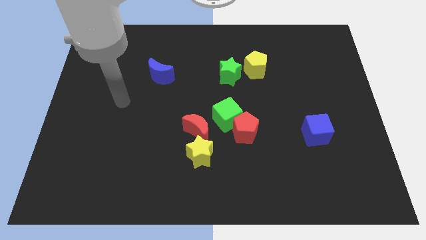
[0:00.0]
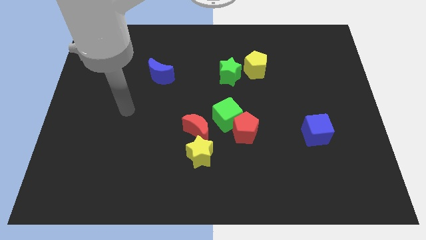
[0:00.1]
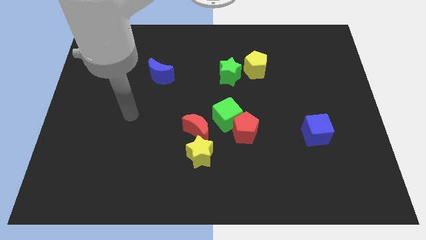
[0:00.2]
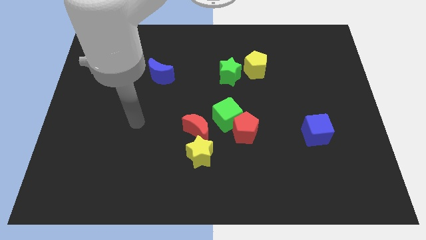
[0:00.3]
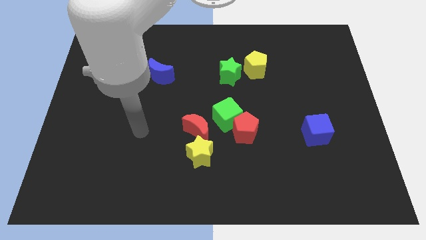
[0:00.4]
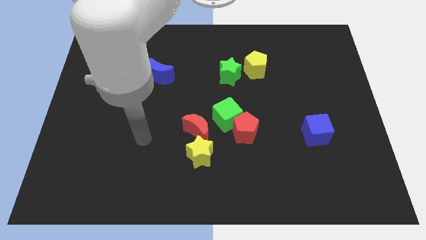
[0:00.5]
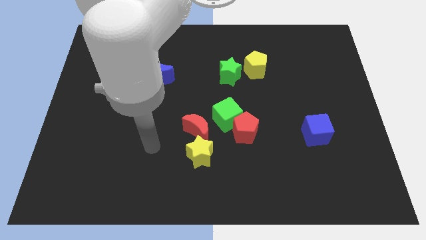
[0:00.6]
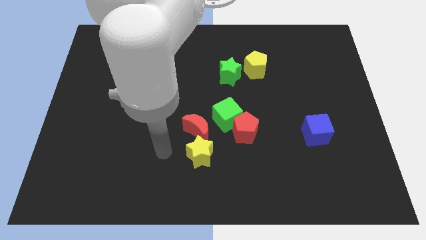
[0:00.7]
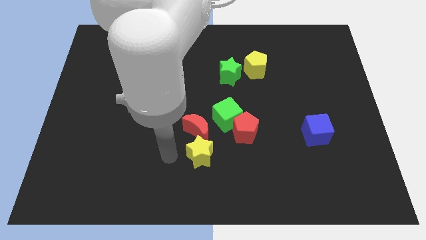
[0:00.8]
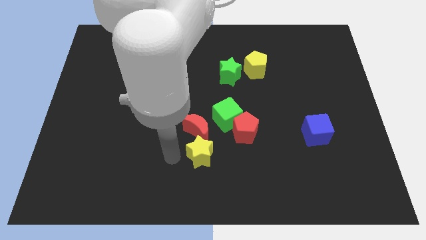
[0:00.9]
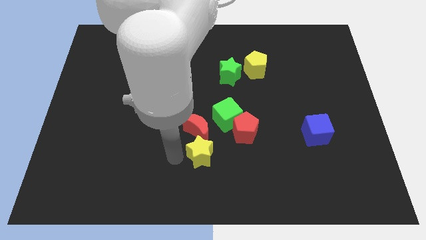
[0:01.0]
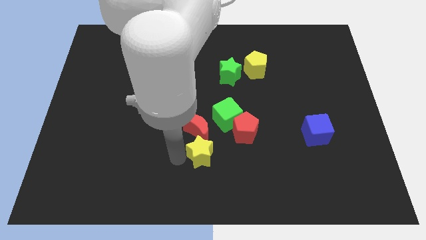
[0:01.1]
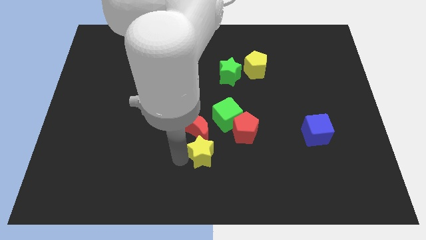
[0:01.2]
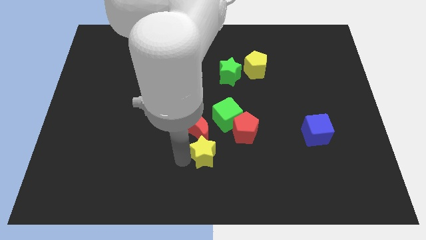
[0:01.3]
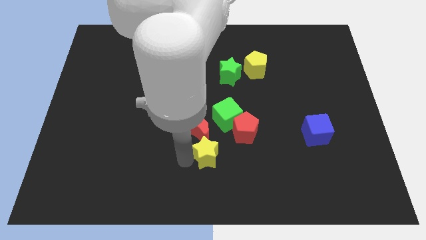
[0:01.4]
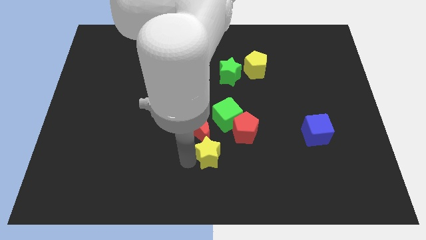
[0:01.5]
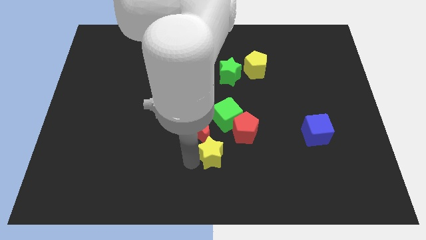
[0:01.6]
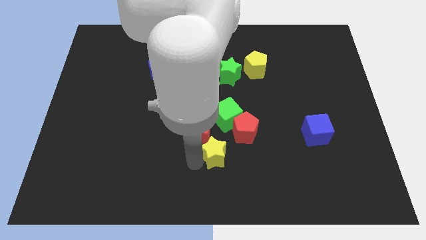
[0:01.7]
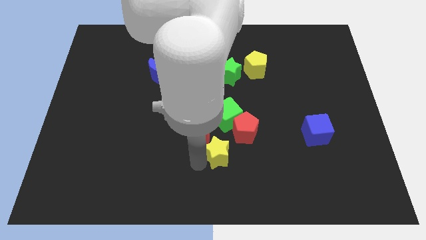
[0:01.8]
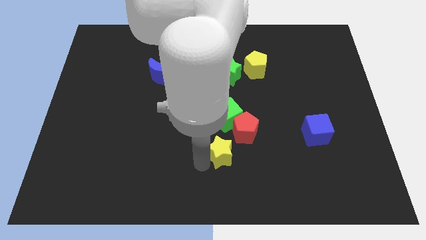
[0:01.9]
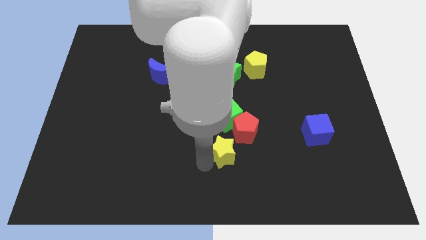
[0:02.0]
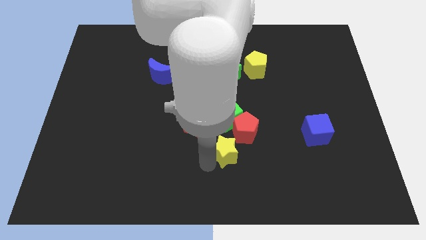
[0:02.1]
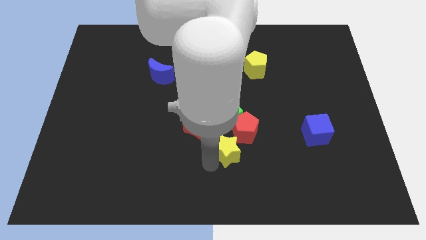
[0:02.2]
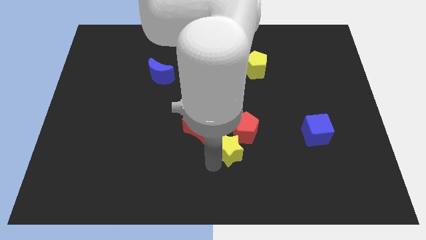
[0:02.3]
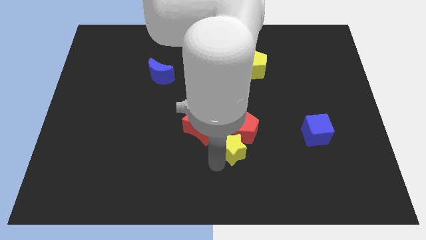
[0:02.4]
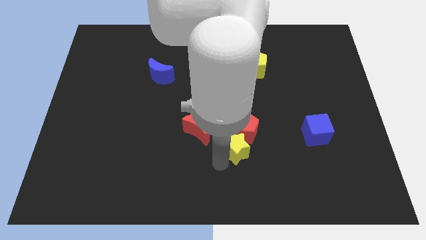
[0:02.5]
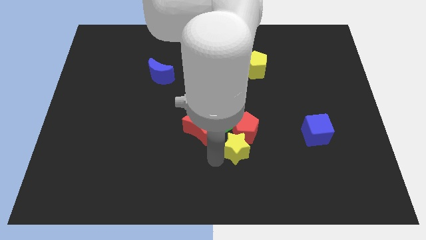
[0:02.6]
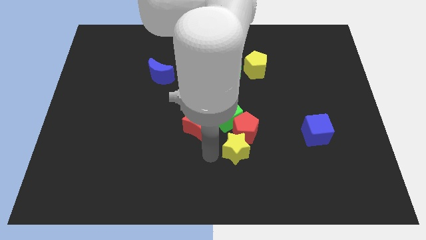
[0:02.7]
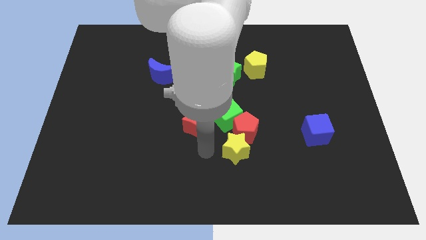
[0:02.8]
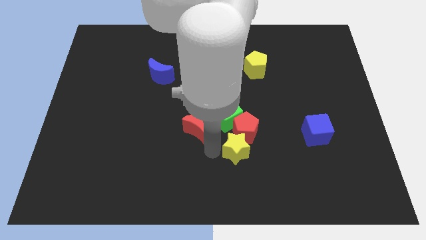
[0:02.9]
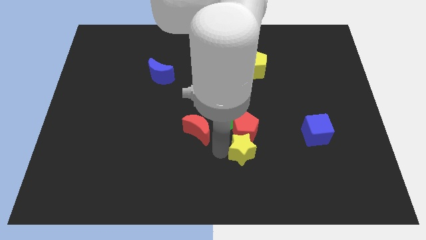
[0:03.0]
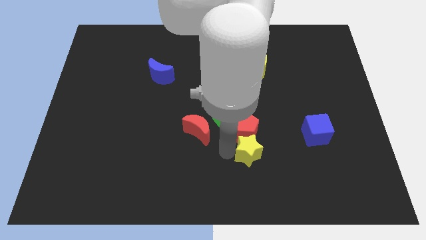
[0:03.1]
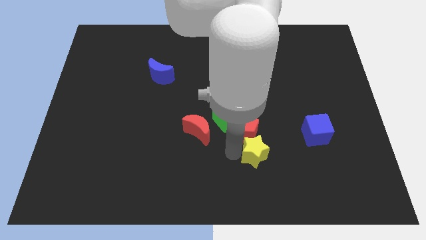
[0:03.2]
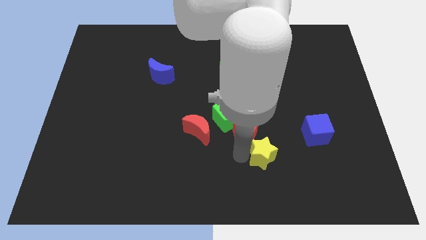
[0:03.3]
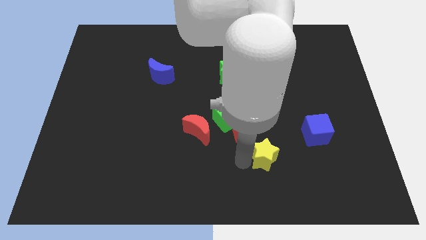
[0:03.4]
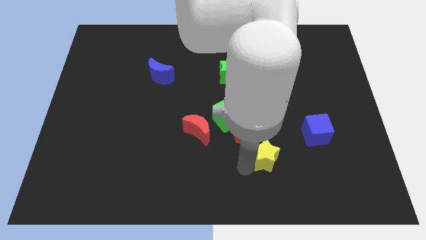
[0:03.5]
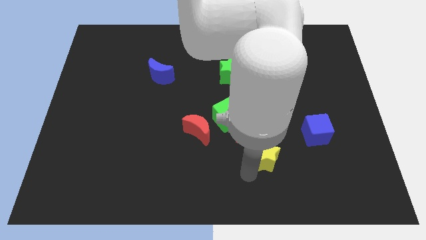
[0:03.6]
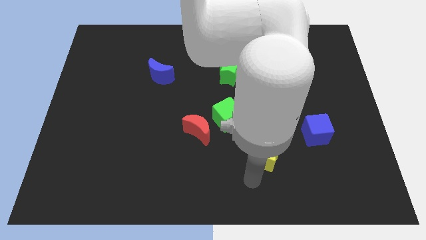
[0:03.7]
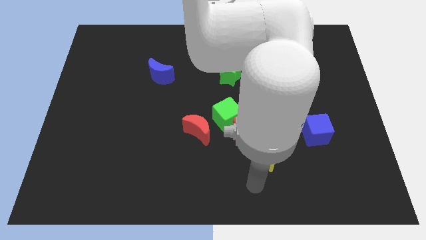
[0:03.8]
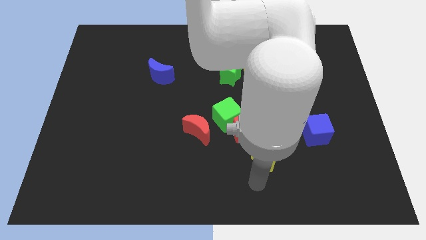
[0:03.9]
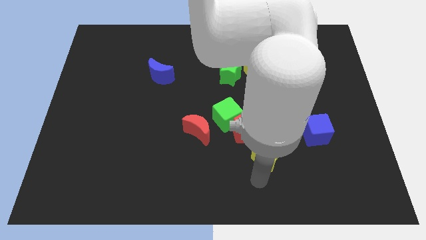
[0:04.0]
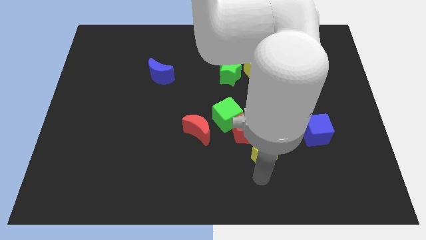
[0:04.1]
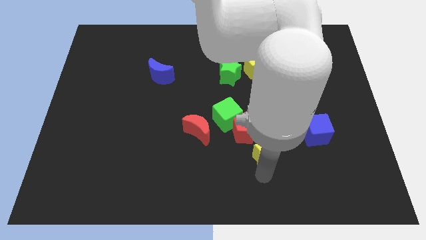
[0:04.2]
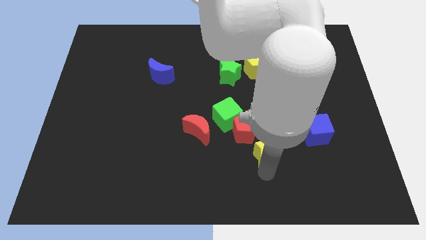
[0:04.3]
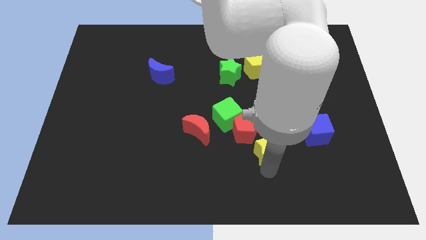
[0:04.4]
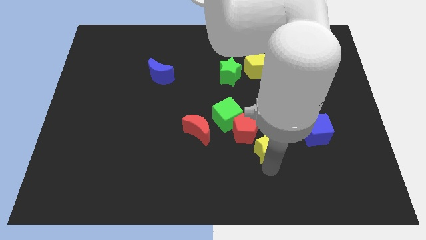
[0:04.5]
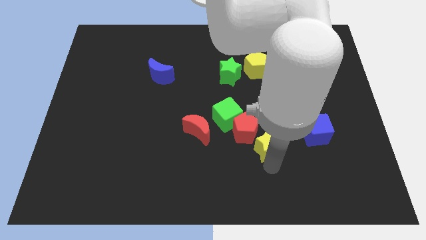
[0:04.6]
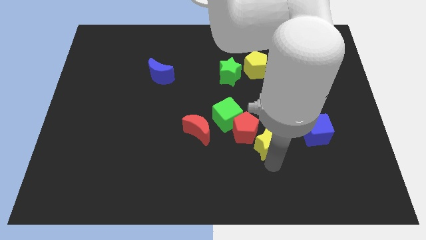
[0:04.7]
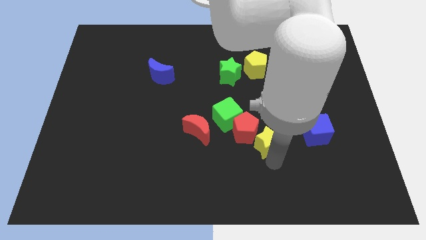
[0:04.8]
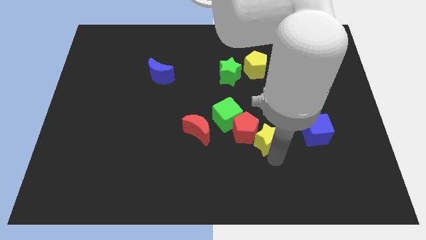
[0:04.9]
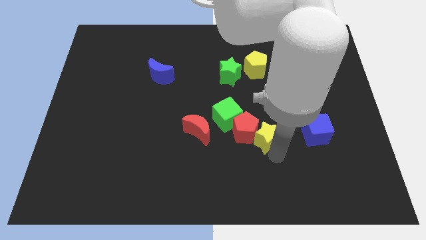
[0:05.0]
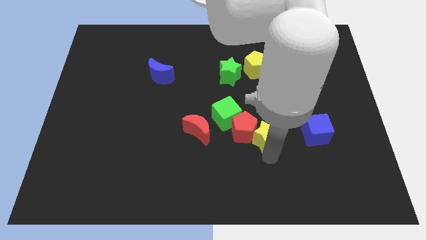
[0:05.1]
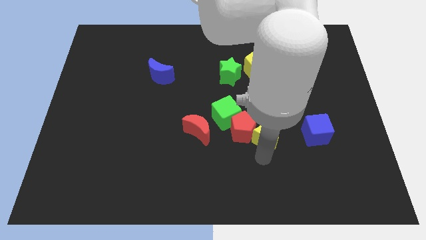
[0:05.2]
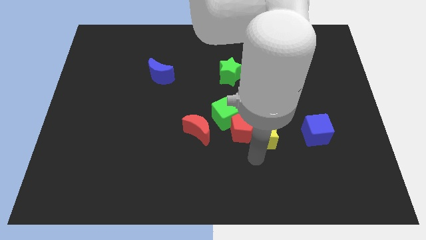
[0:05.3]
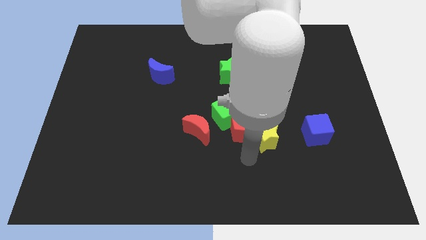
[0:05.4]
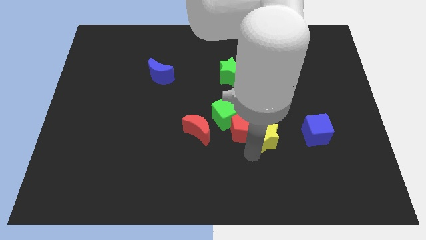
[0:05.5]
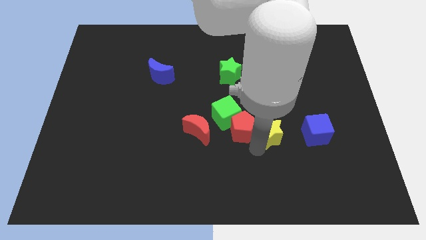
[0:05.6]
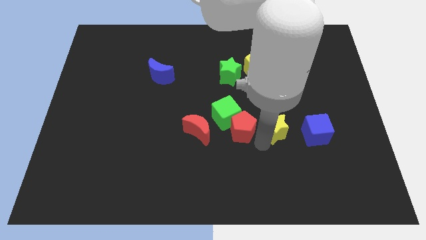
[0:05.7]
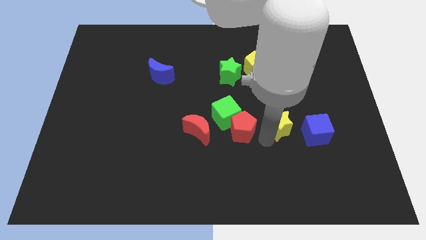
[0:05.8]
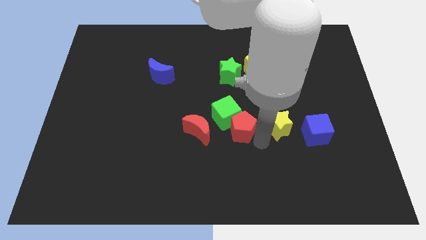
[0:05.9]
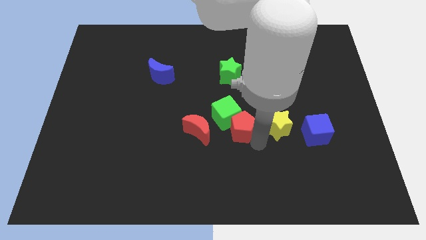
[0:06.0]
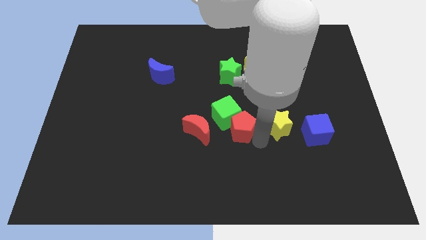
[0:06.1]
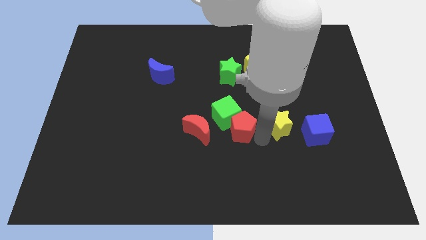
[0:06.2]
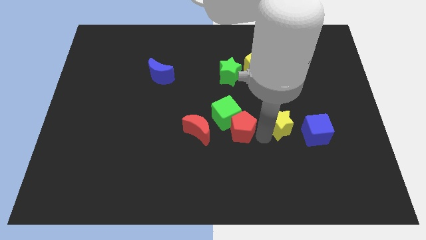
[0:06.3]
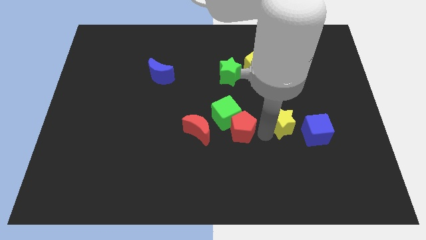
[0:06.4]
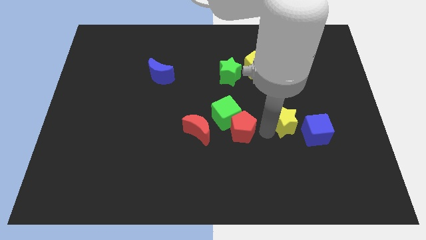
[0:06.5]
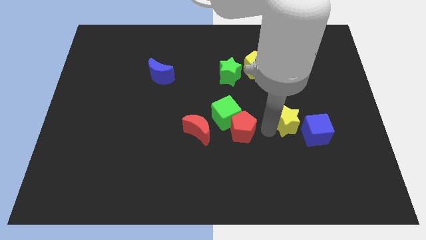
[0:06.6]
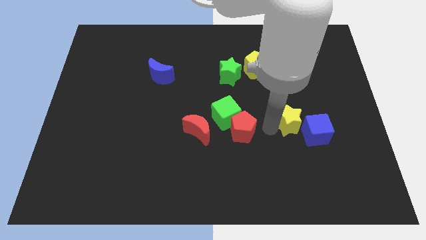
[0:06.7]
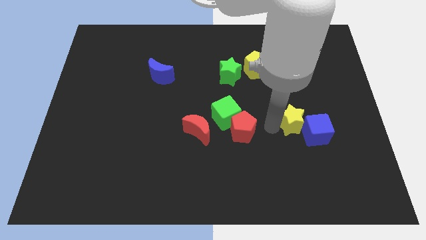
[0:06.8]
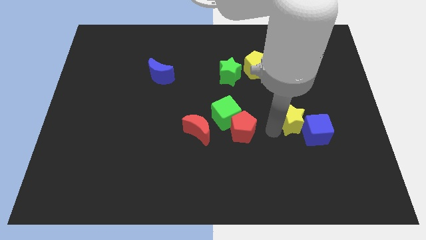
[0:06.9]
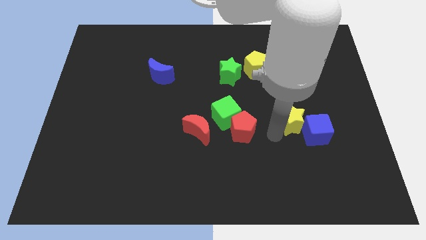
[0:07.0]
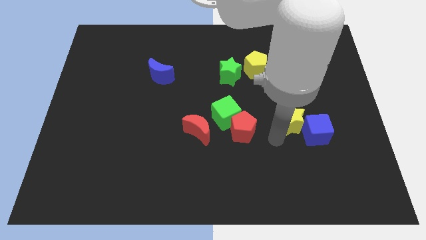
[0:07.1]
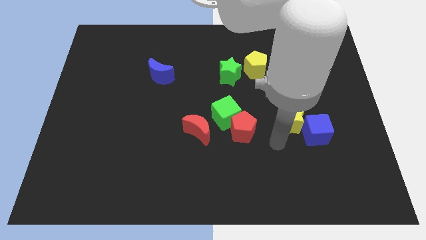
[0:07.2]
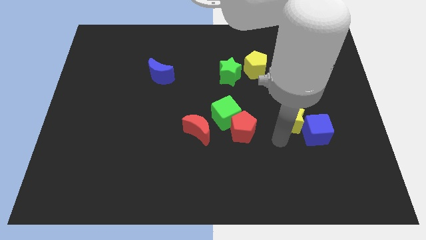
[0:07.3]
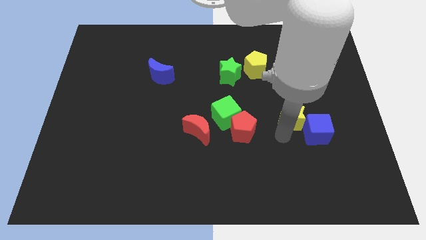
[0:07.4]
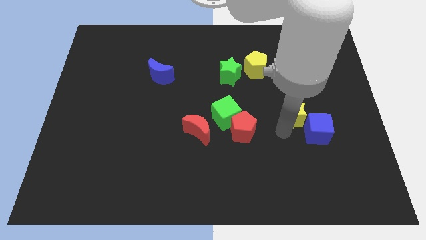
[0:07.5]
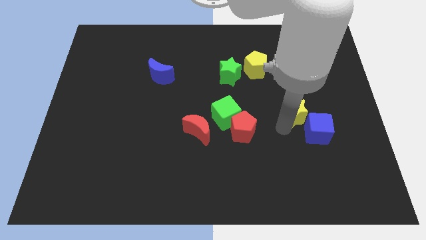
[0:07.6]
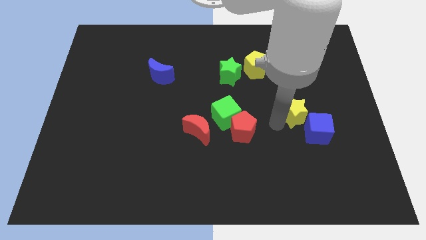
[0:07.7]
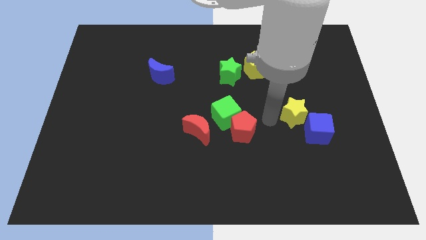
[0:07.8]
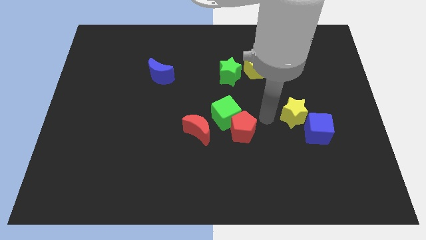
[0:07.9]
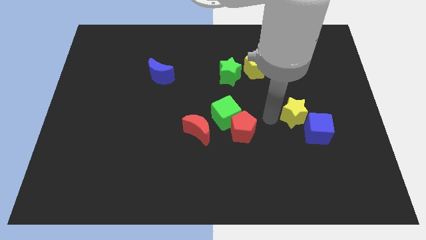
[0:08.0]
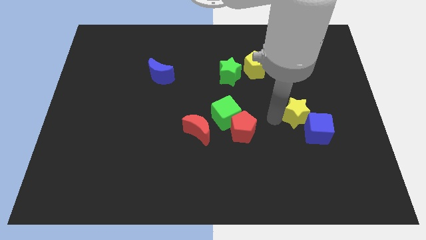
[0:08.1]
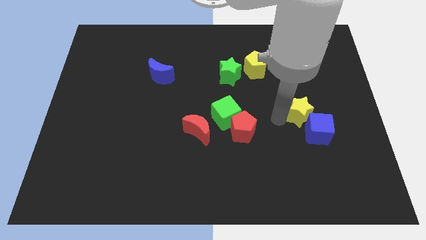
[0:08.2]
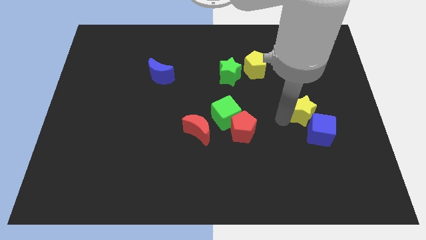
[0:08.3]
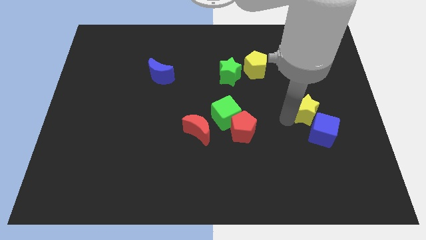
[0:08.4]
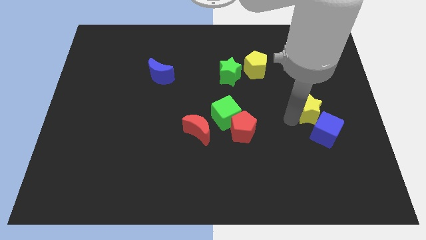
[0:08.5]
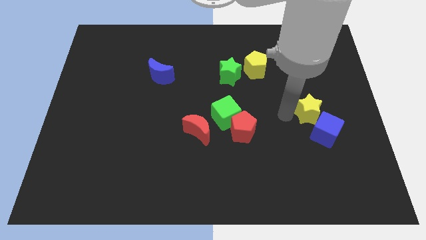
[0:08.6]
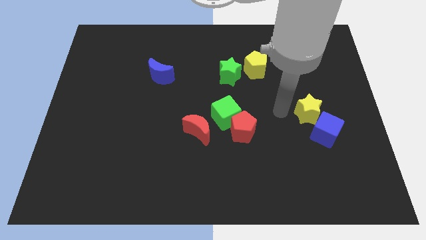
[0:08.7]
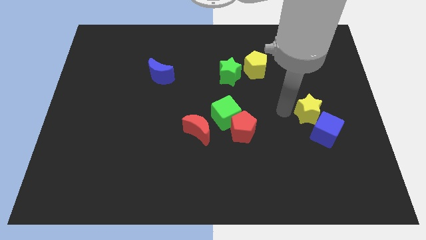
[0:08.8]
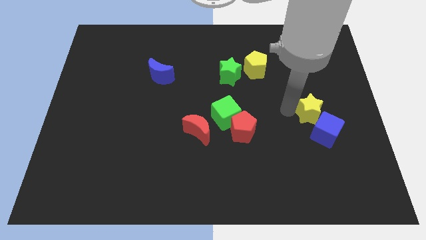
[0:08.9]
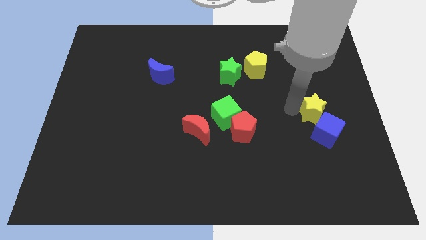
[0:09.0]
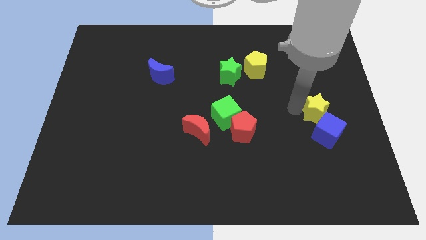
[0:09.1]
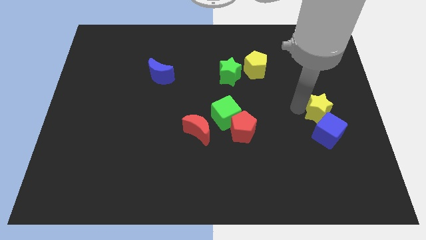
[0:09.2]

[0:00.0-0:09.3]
push the yellow star diagonally up and to the right of the blue cube
